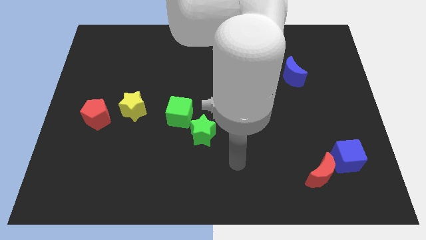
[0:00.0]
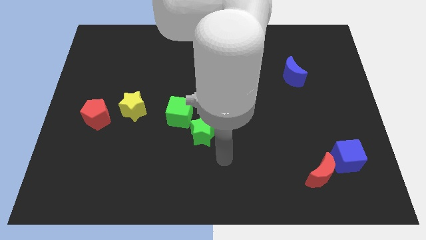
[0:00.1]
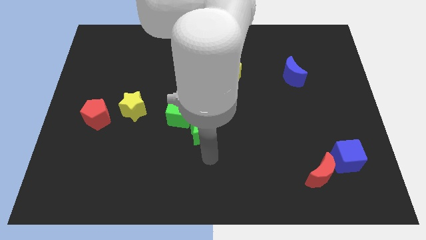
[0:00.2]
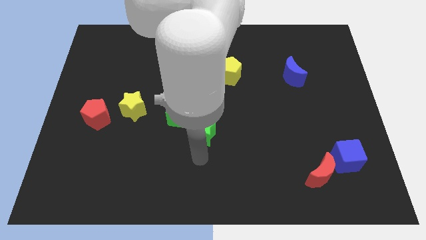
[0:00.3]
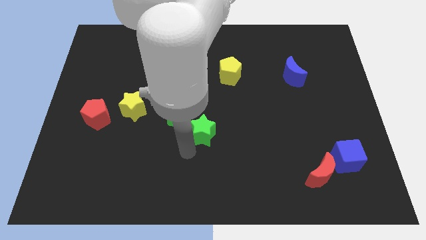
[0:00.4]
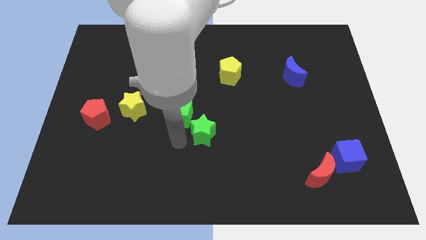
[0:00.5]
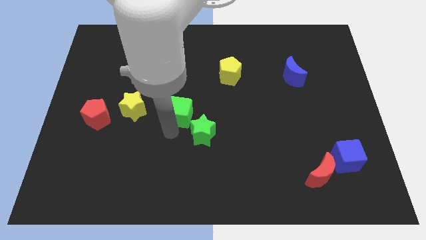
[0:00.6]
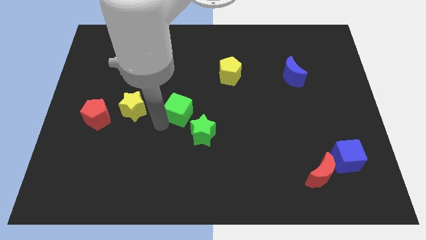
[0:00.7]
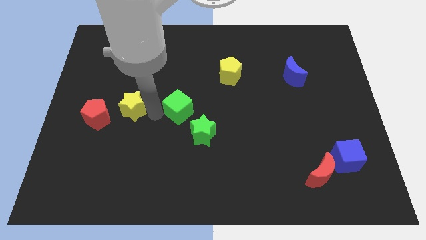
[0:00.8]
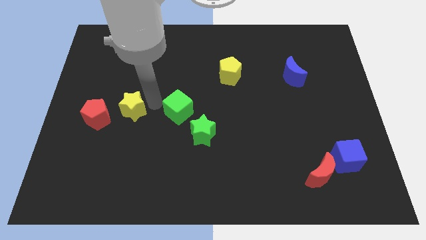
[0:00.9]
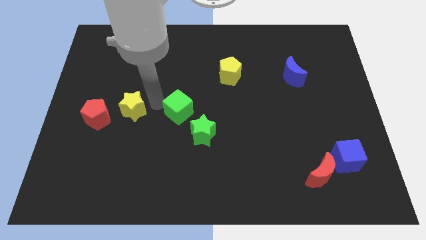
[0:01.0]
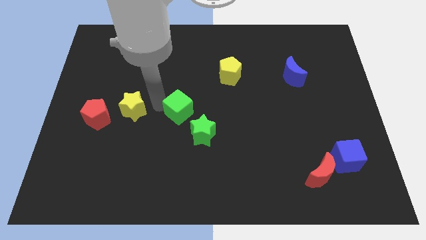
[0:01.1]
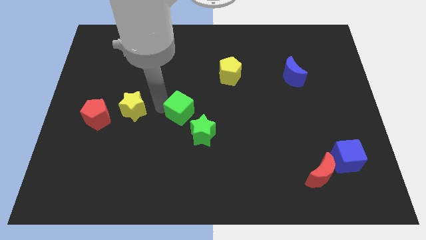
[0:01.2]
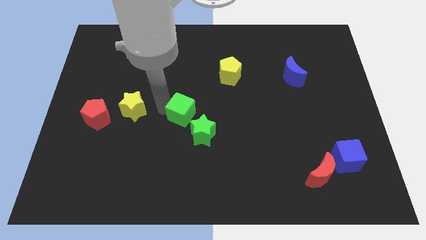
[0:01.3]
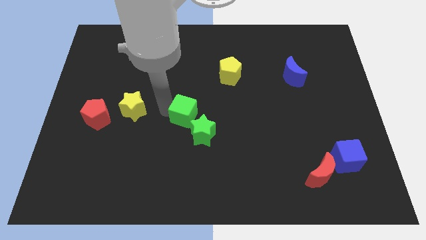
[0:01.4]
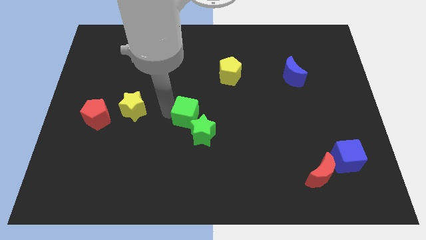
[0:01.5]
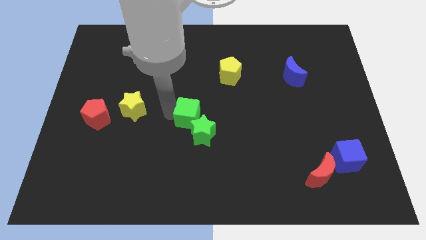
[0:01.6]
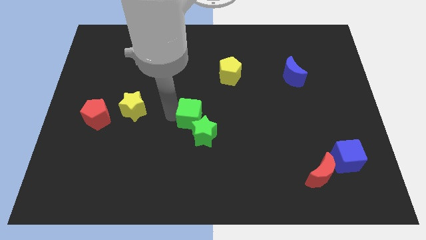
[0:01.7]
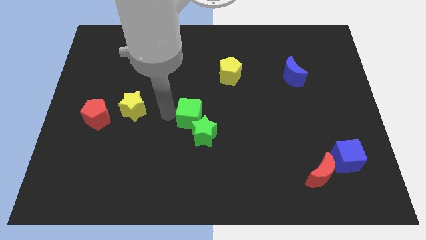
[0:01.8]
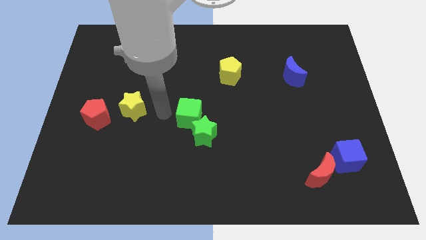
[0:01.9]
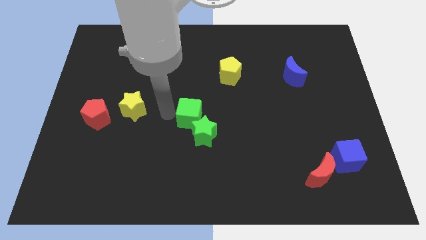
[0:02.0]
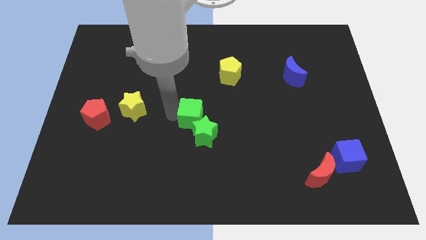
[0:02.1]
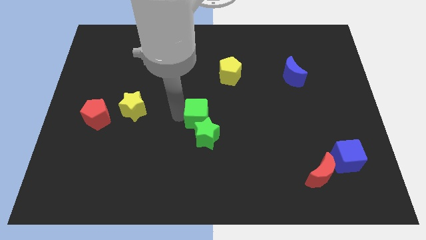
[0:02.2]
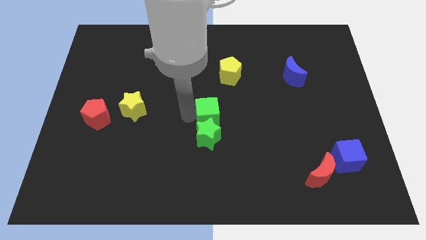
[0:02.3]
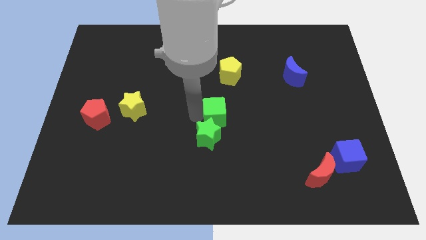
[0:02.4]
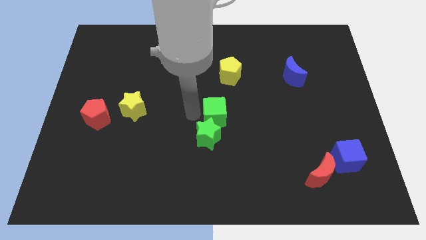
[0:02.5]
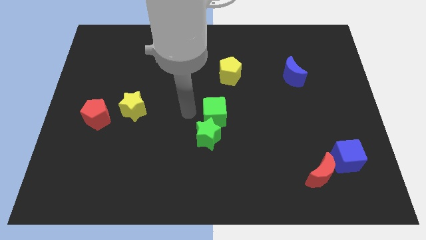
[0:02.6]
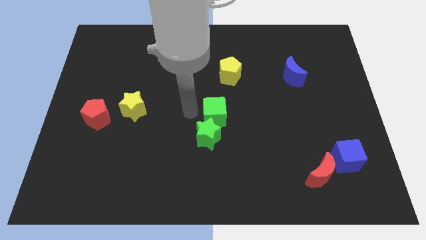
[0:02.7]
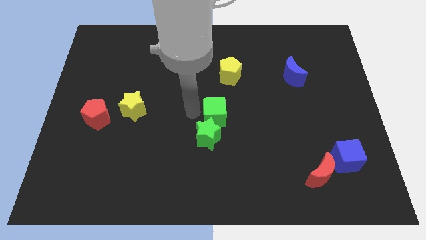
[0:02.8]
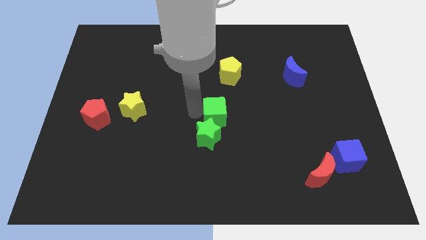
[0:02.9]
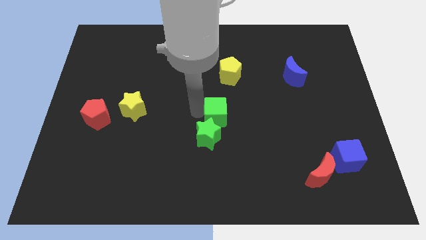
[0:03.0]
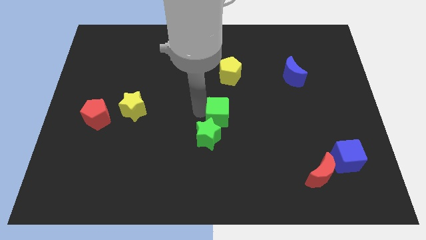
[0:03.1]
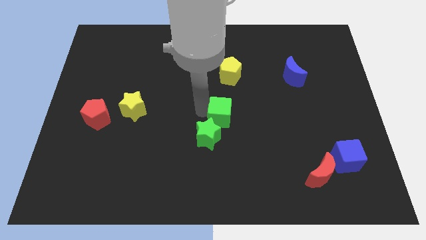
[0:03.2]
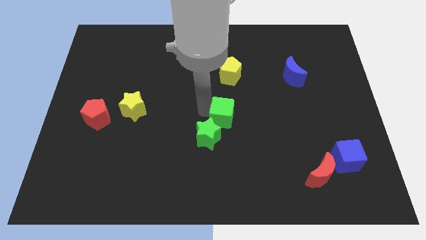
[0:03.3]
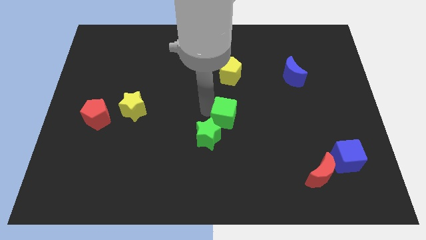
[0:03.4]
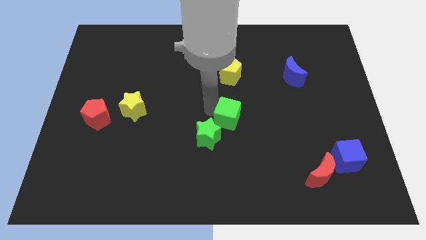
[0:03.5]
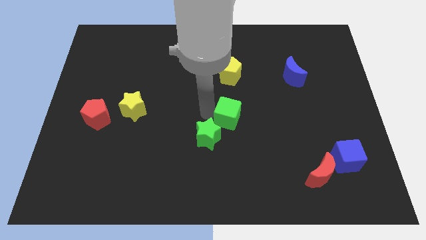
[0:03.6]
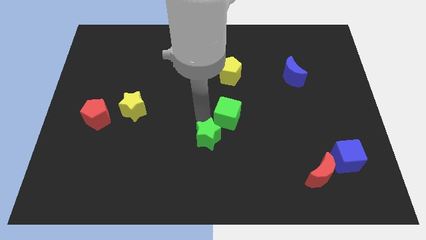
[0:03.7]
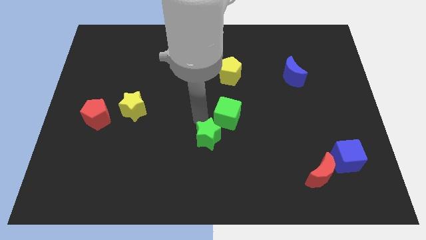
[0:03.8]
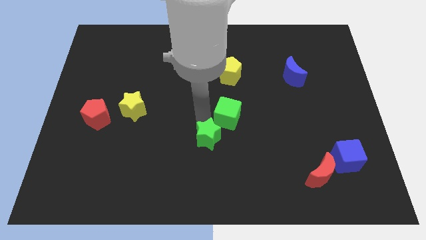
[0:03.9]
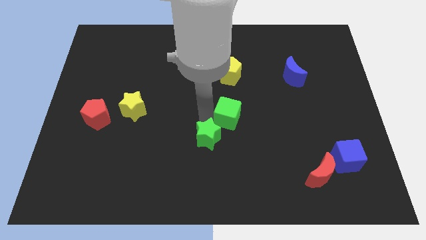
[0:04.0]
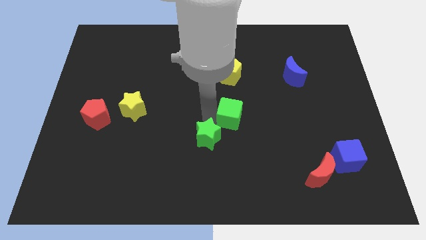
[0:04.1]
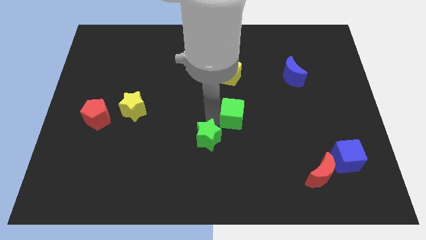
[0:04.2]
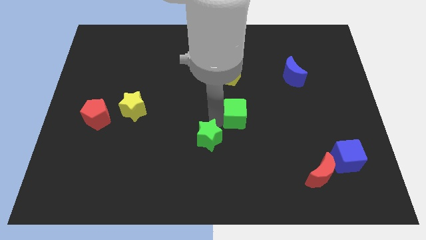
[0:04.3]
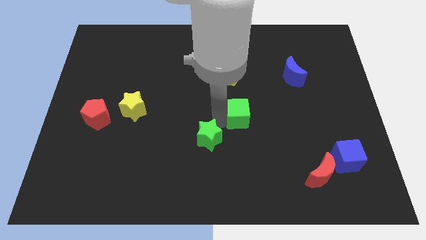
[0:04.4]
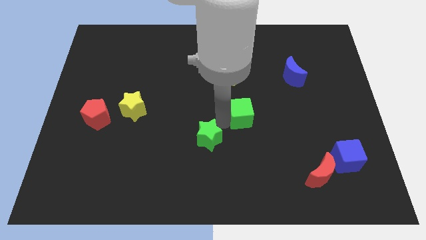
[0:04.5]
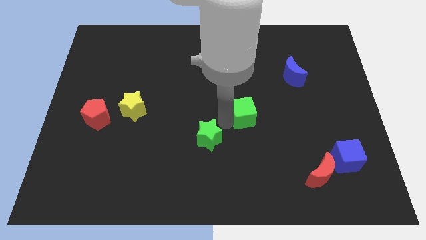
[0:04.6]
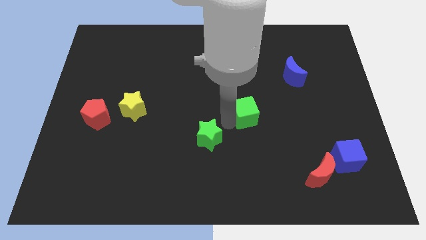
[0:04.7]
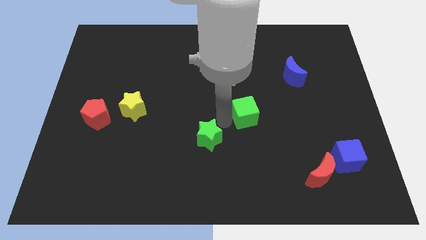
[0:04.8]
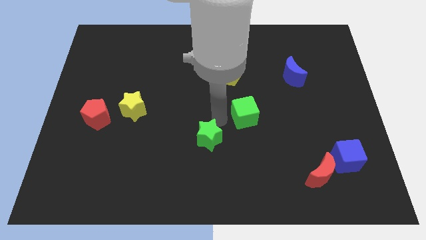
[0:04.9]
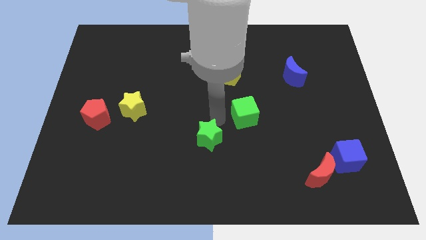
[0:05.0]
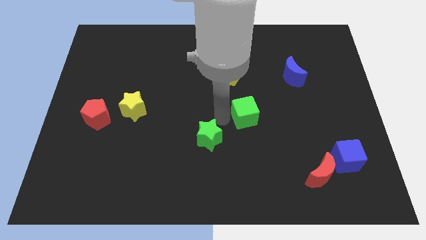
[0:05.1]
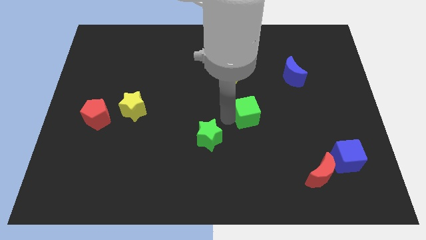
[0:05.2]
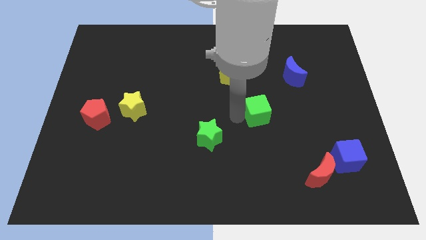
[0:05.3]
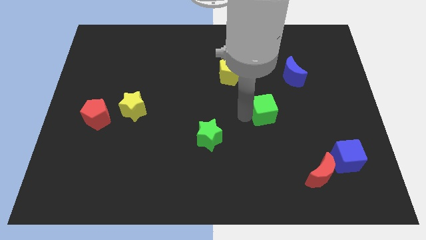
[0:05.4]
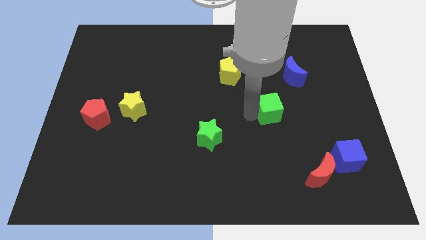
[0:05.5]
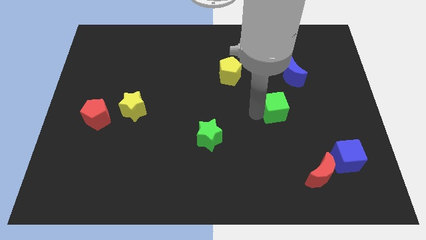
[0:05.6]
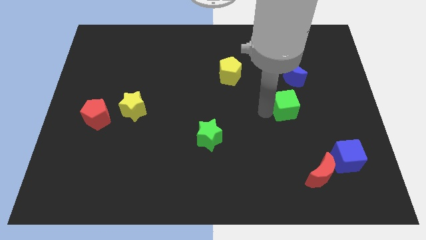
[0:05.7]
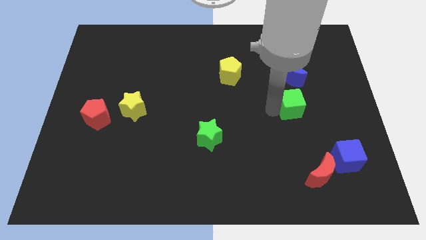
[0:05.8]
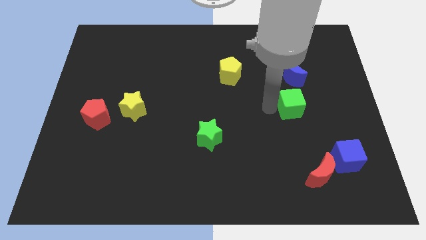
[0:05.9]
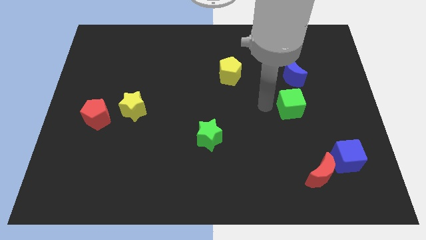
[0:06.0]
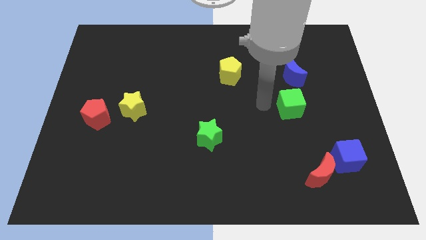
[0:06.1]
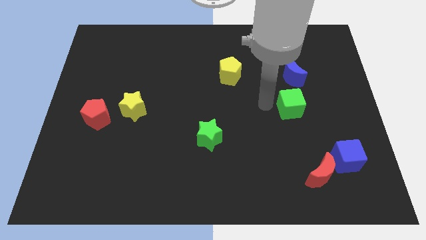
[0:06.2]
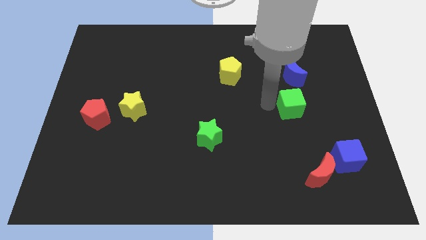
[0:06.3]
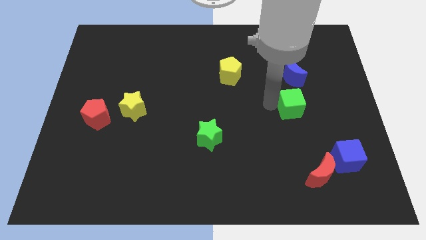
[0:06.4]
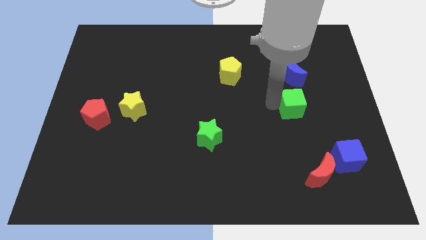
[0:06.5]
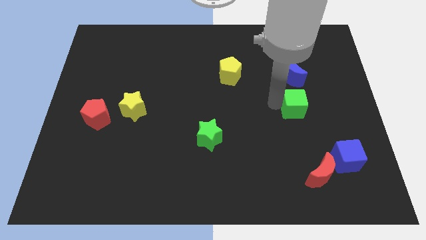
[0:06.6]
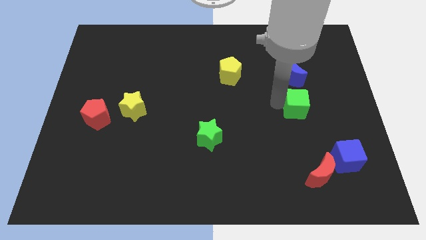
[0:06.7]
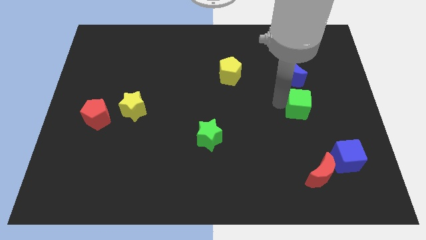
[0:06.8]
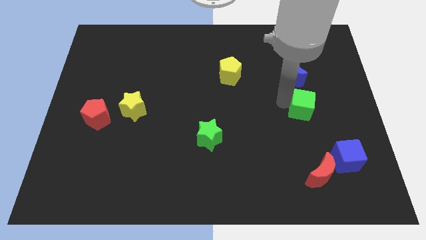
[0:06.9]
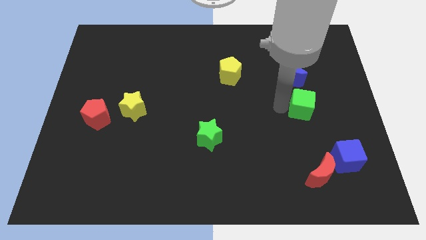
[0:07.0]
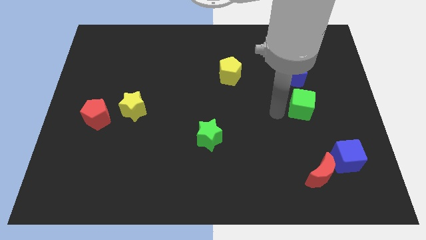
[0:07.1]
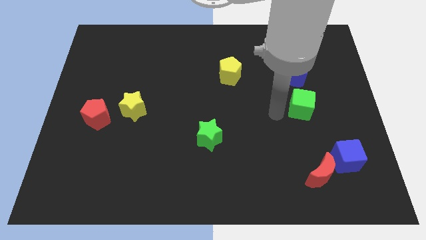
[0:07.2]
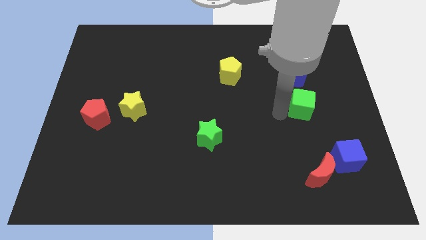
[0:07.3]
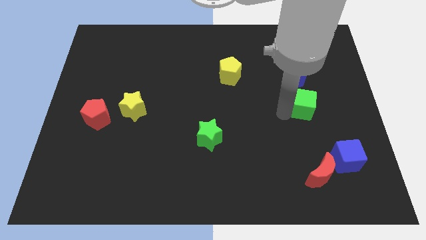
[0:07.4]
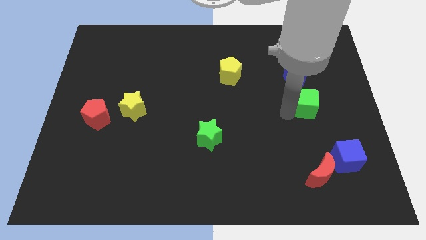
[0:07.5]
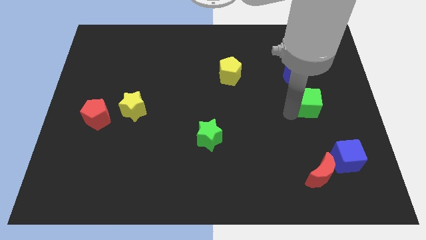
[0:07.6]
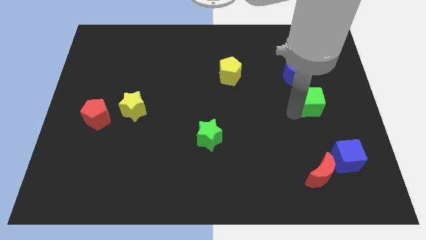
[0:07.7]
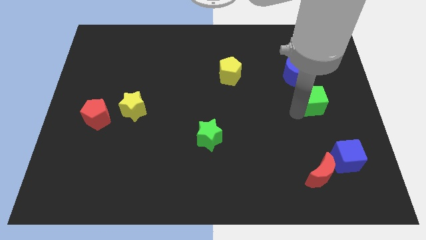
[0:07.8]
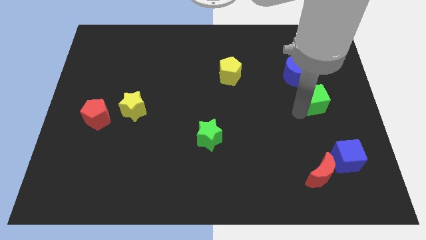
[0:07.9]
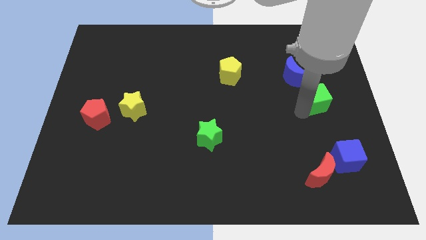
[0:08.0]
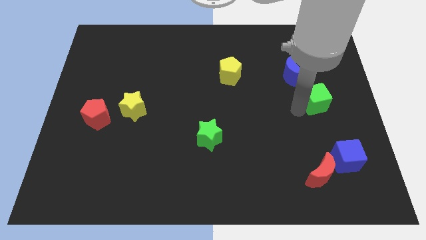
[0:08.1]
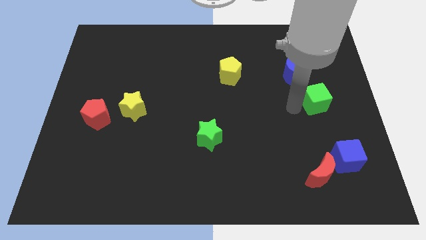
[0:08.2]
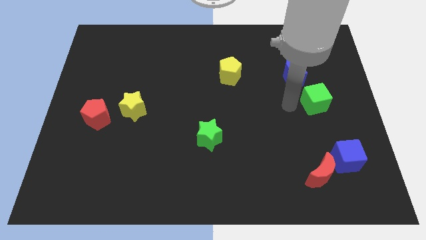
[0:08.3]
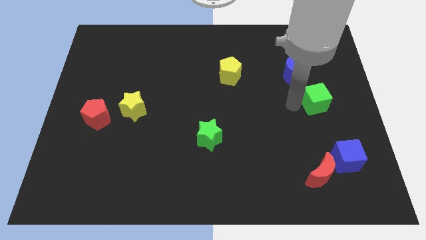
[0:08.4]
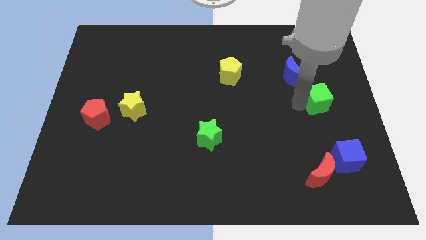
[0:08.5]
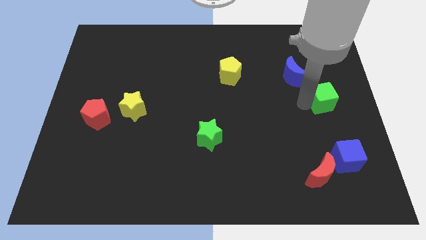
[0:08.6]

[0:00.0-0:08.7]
push the green cube to the center right
